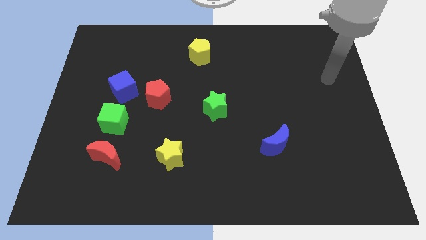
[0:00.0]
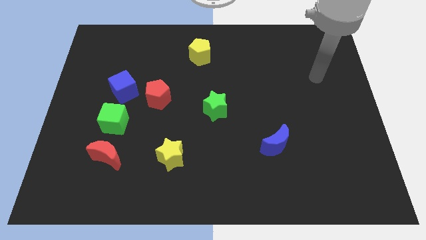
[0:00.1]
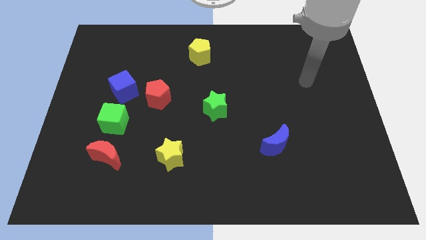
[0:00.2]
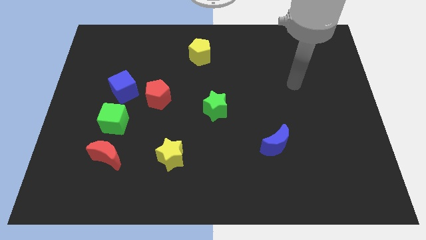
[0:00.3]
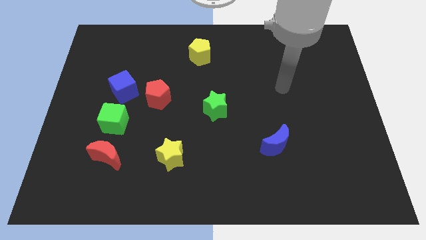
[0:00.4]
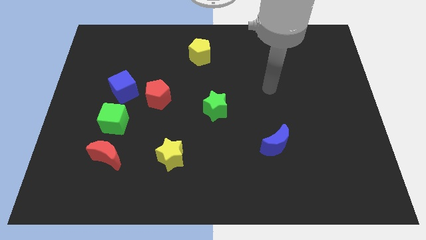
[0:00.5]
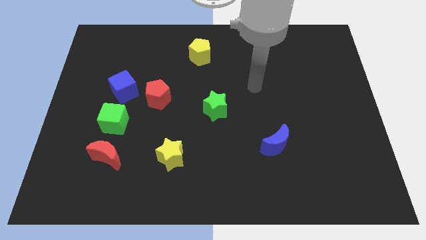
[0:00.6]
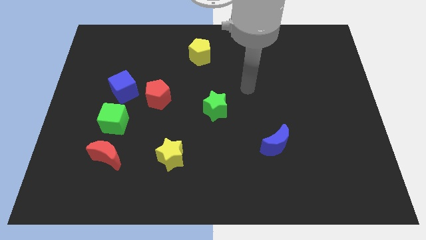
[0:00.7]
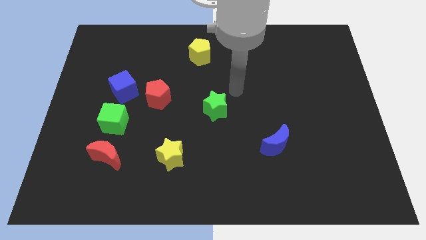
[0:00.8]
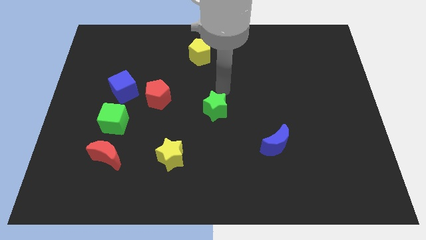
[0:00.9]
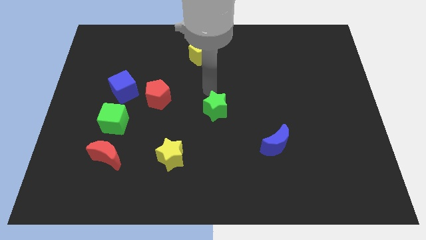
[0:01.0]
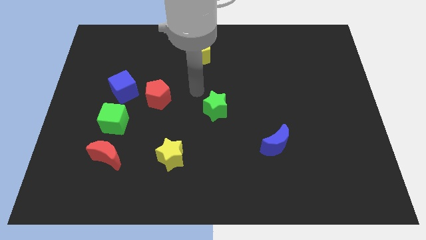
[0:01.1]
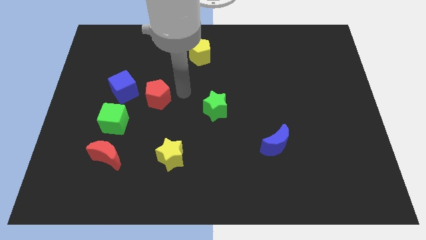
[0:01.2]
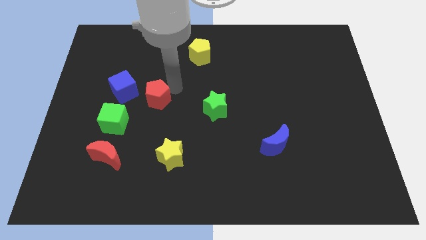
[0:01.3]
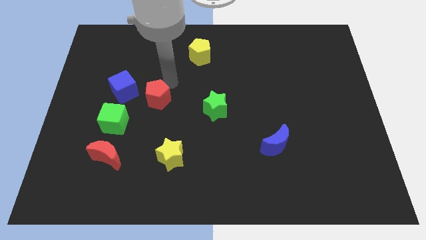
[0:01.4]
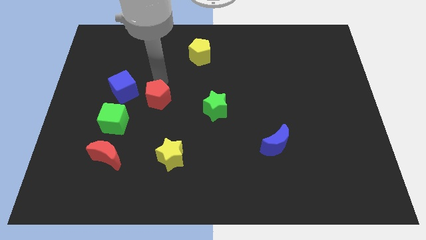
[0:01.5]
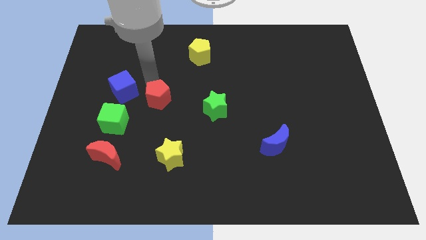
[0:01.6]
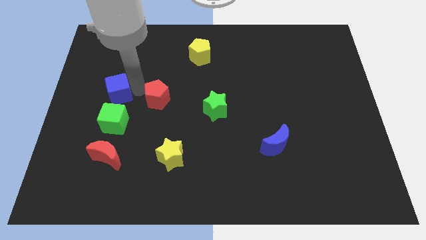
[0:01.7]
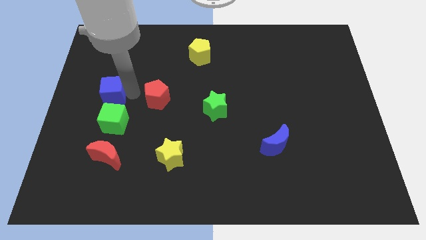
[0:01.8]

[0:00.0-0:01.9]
separate the red pentagon from the blue cube

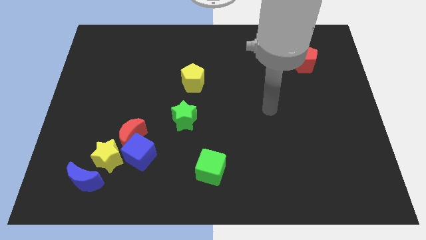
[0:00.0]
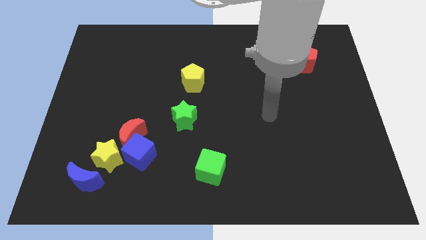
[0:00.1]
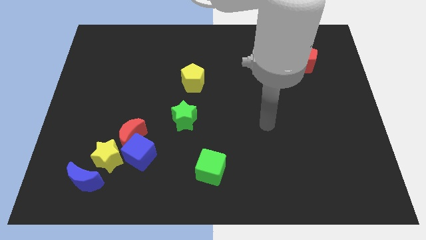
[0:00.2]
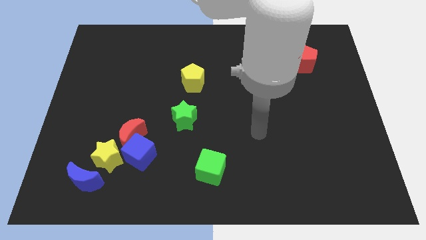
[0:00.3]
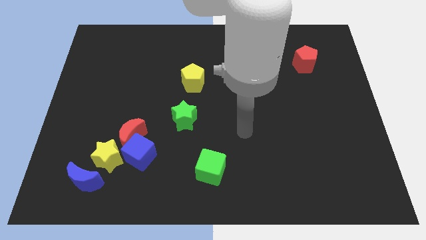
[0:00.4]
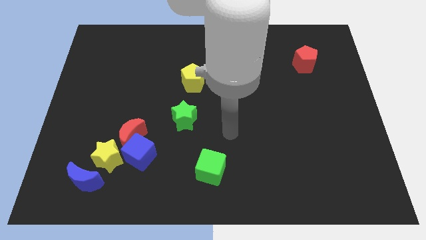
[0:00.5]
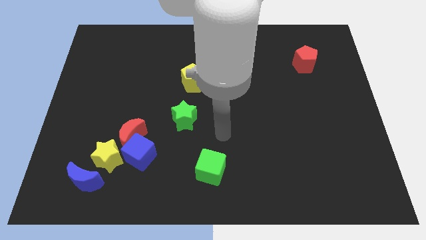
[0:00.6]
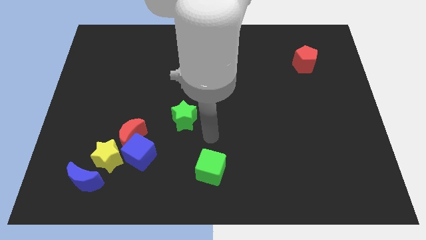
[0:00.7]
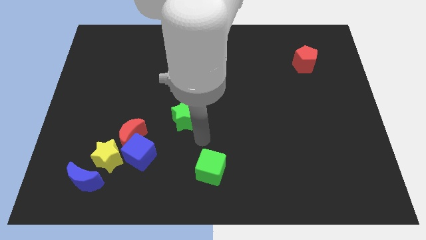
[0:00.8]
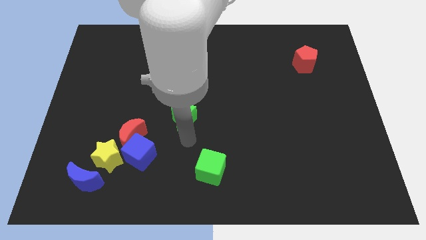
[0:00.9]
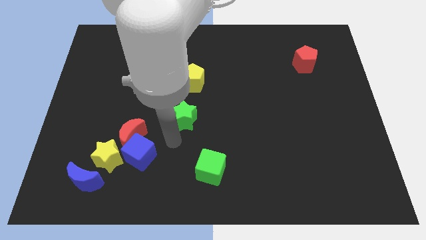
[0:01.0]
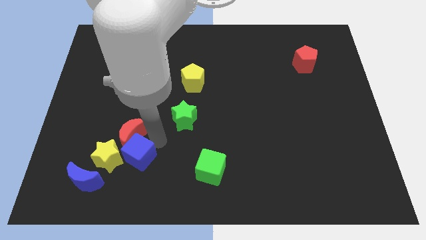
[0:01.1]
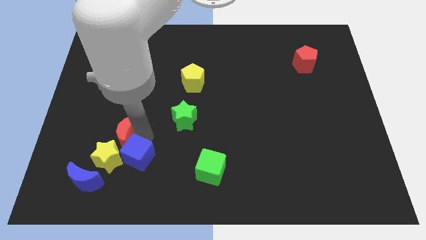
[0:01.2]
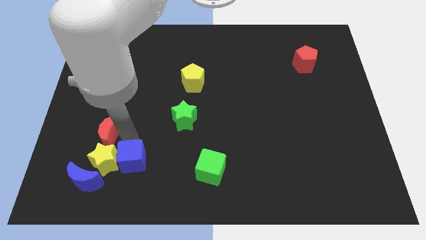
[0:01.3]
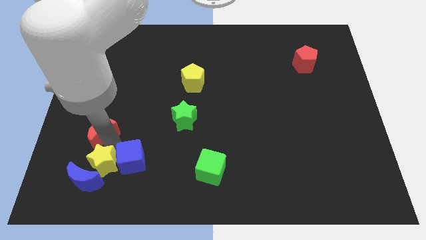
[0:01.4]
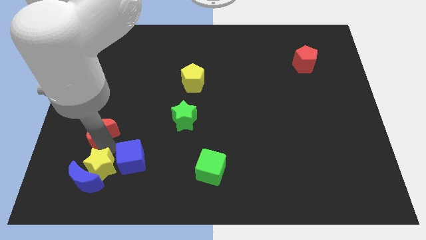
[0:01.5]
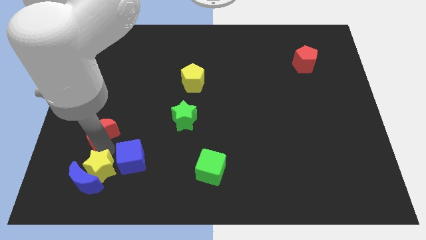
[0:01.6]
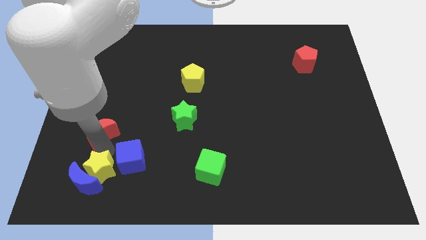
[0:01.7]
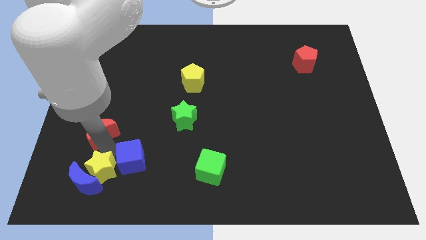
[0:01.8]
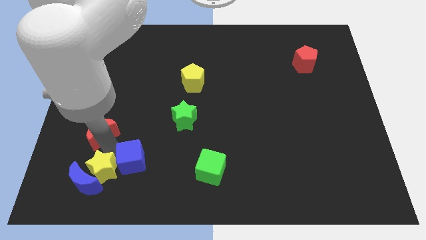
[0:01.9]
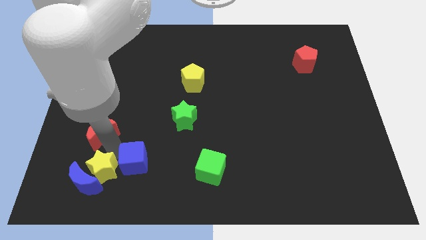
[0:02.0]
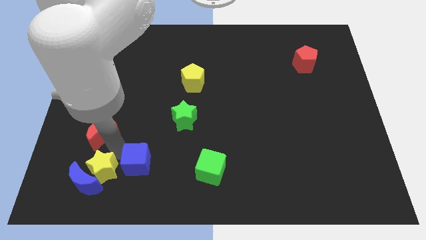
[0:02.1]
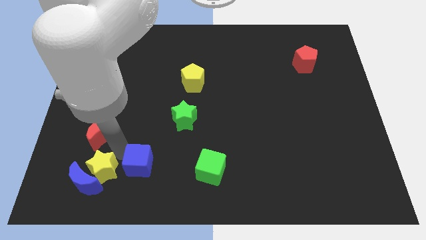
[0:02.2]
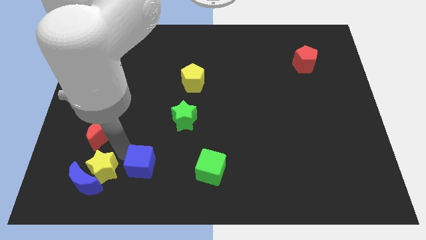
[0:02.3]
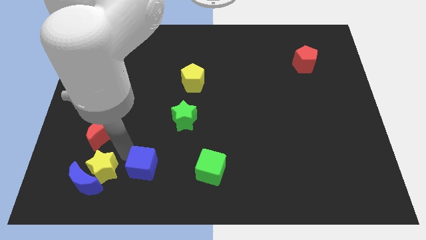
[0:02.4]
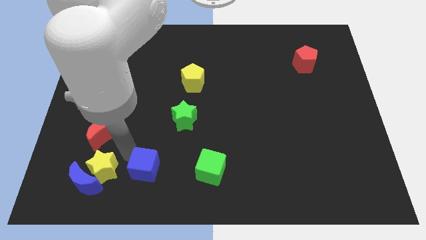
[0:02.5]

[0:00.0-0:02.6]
pull the blue cube apart from the red moon and yellow star

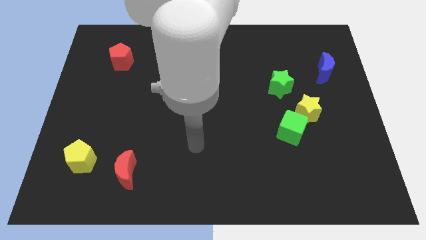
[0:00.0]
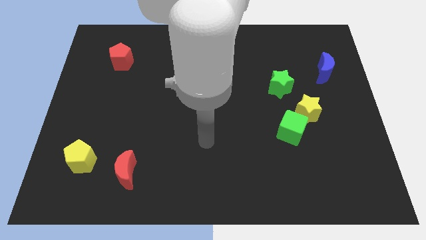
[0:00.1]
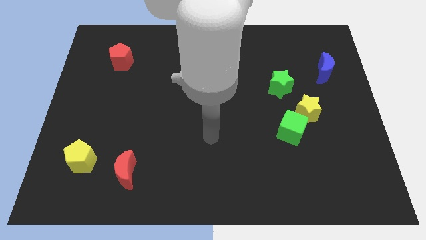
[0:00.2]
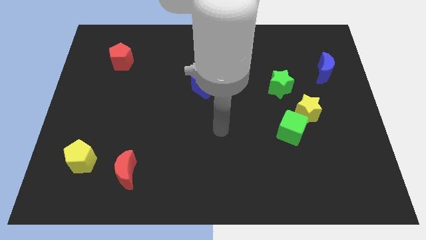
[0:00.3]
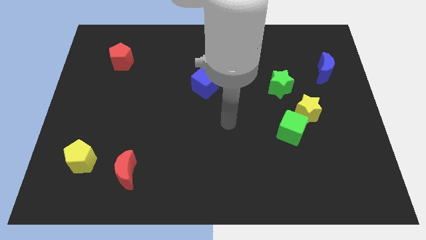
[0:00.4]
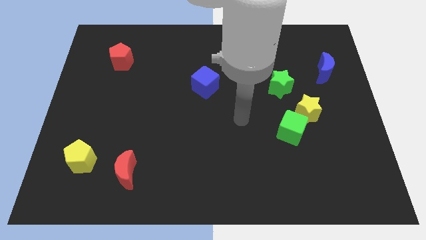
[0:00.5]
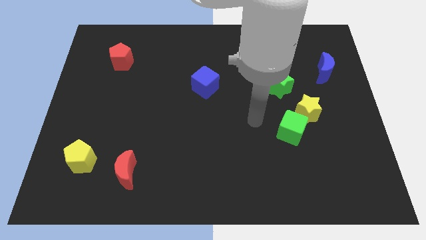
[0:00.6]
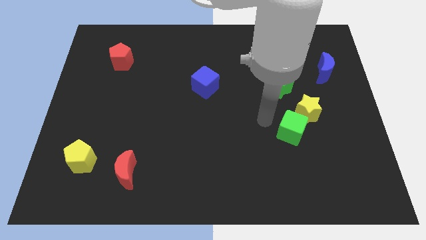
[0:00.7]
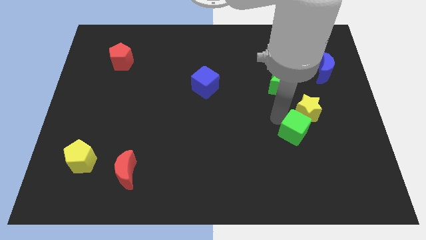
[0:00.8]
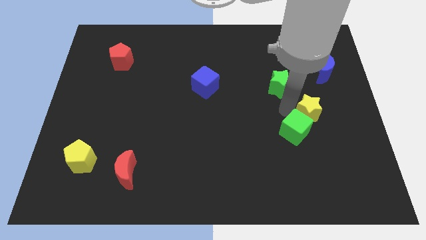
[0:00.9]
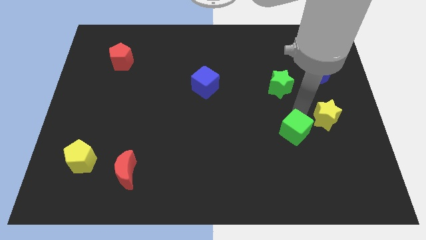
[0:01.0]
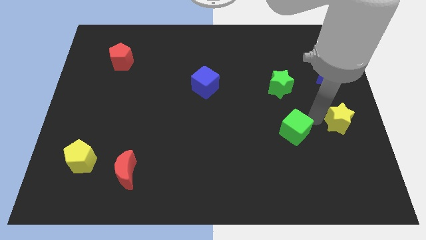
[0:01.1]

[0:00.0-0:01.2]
move the green cube away from the yellow star

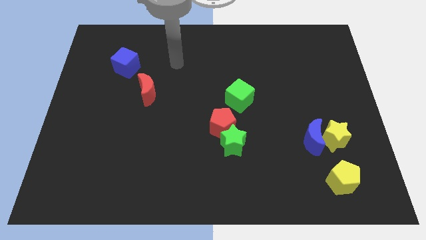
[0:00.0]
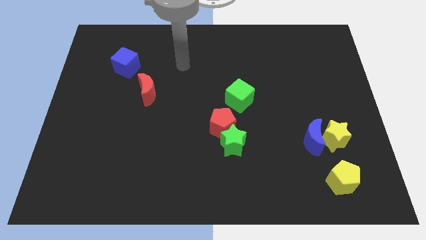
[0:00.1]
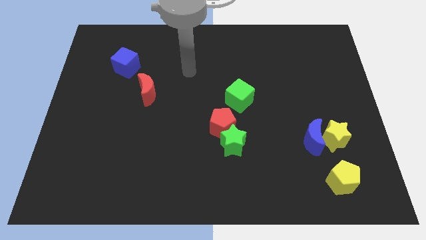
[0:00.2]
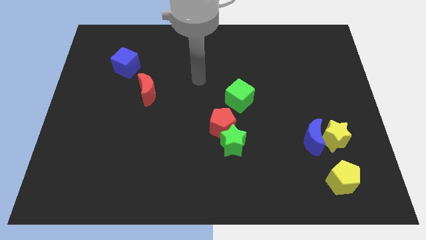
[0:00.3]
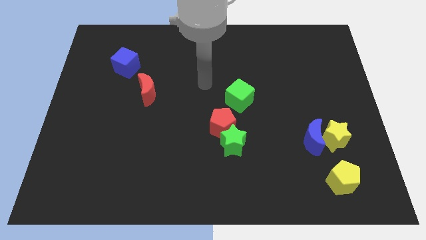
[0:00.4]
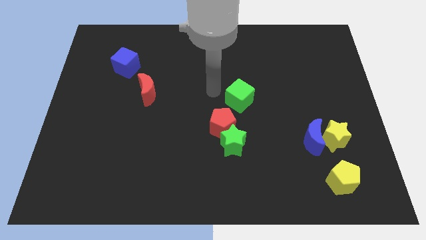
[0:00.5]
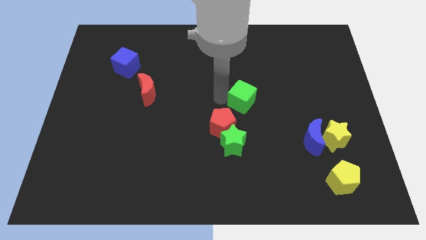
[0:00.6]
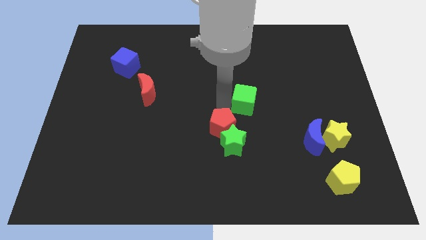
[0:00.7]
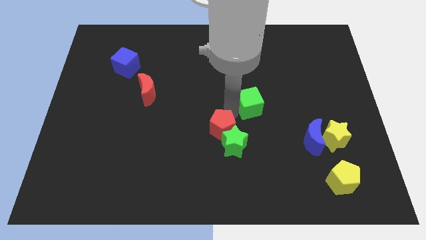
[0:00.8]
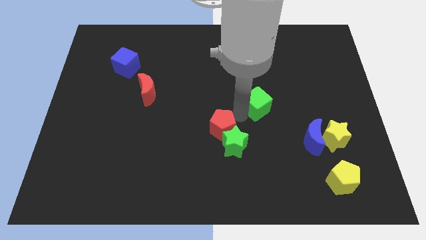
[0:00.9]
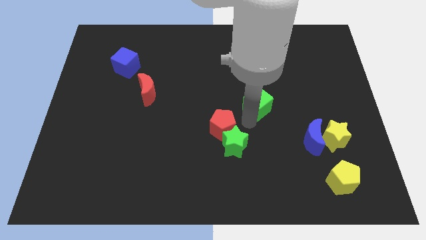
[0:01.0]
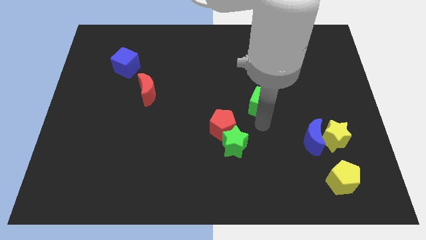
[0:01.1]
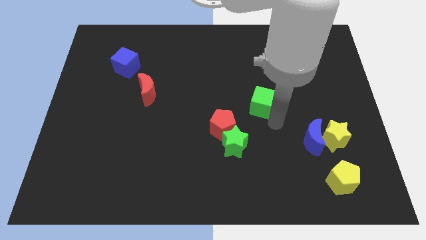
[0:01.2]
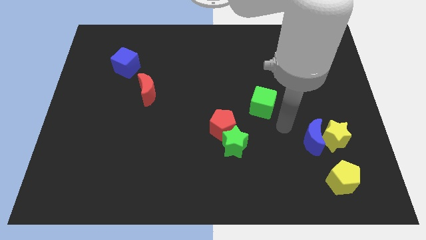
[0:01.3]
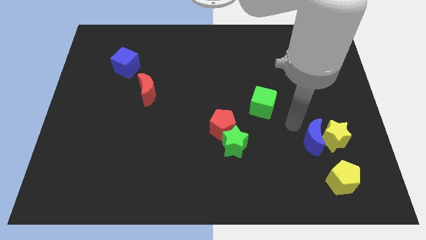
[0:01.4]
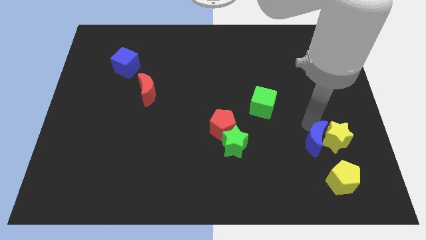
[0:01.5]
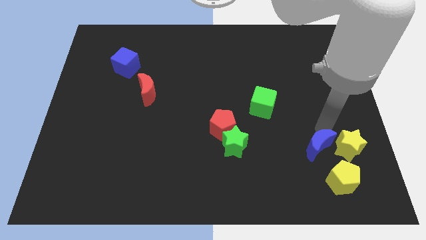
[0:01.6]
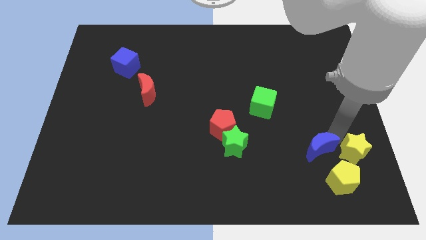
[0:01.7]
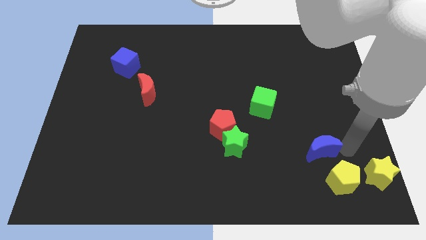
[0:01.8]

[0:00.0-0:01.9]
move the blue moon away from the yellow star

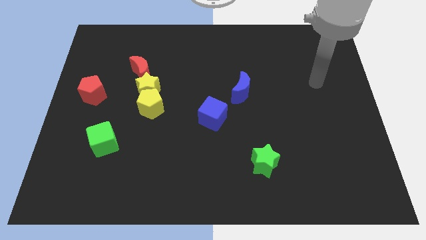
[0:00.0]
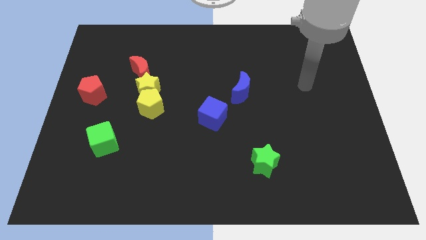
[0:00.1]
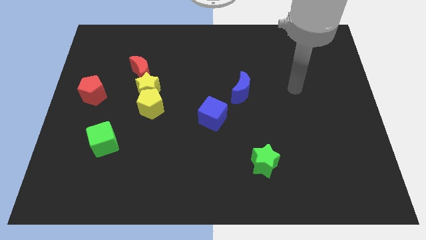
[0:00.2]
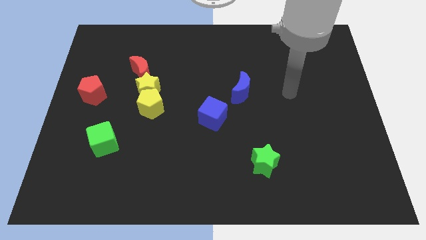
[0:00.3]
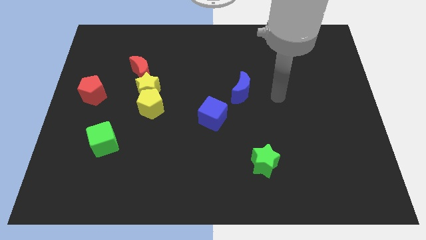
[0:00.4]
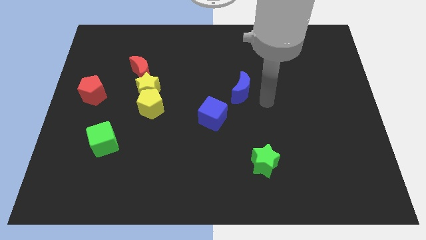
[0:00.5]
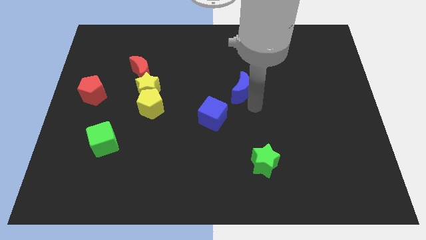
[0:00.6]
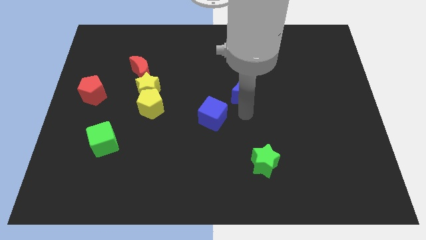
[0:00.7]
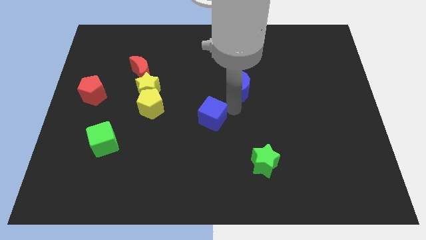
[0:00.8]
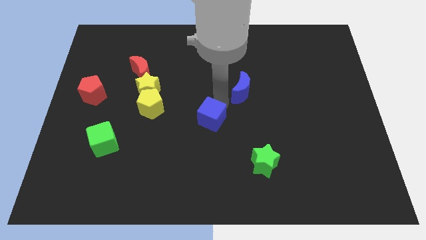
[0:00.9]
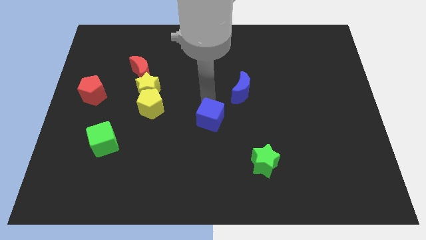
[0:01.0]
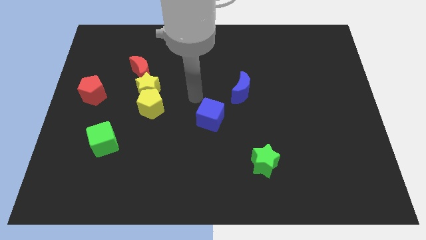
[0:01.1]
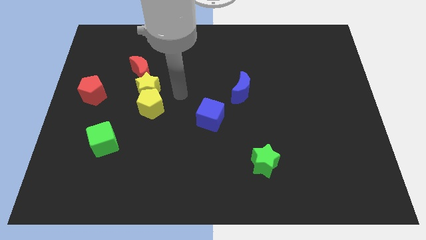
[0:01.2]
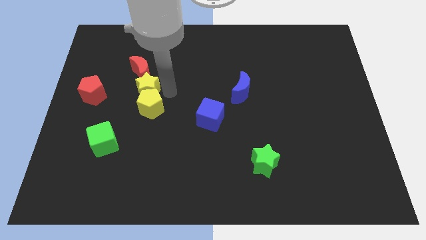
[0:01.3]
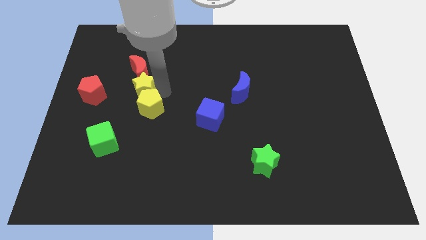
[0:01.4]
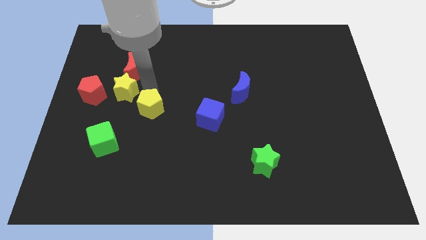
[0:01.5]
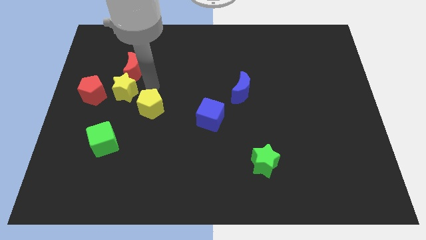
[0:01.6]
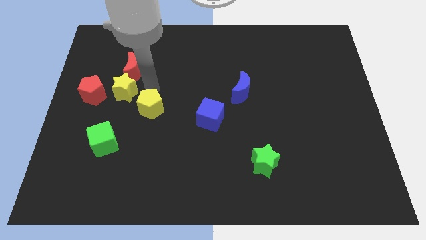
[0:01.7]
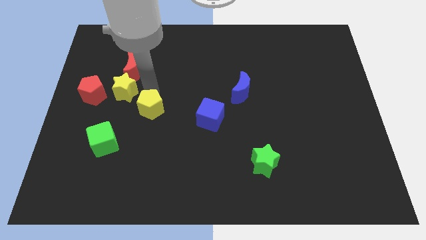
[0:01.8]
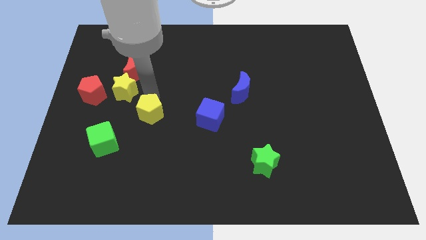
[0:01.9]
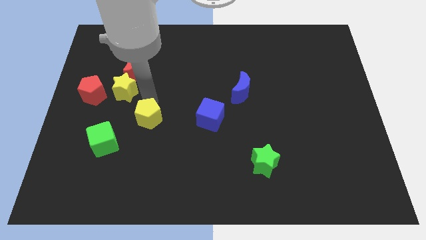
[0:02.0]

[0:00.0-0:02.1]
separate the yellow pentagon from the yellow star
